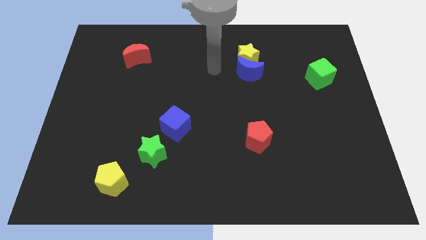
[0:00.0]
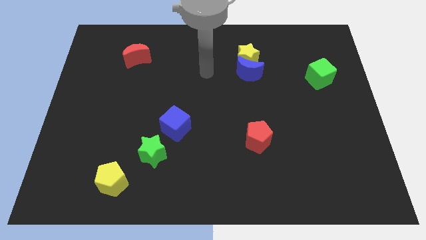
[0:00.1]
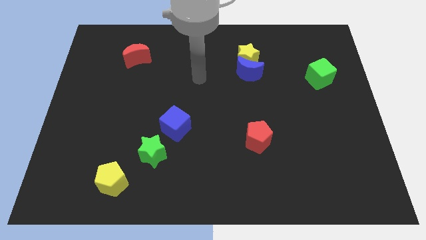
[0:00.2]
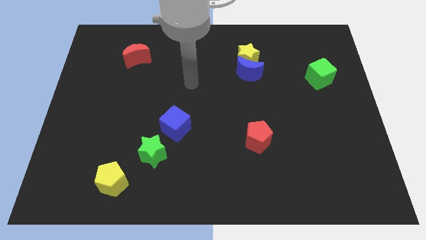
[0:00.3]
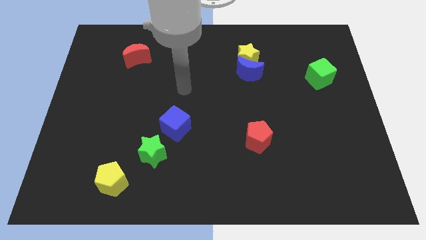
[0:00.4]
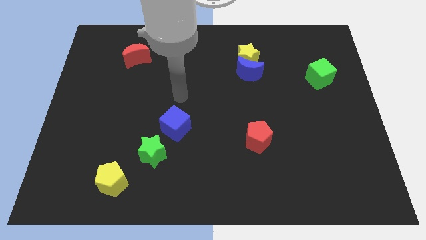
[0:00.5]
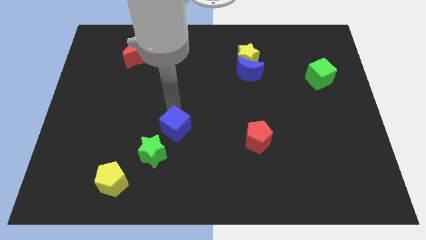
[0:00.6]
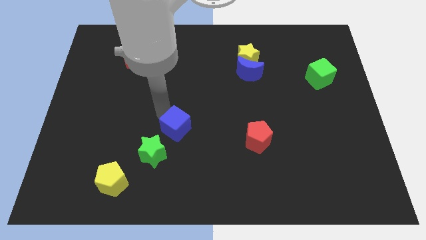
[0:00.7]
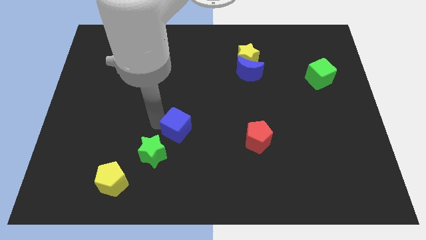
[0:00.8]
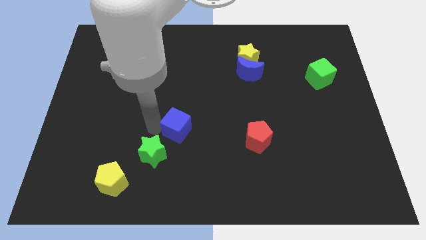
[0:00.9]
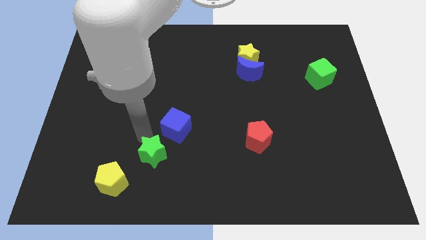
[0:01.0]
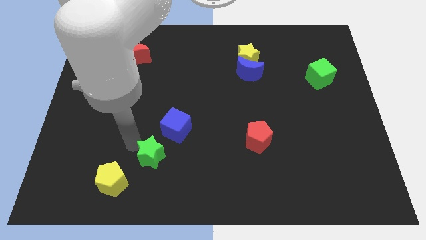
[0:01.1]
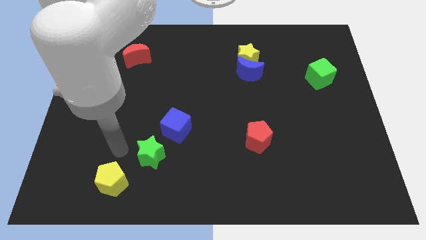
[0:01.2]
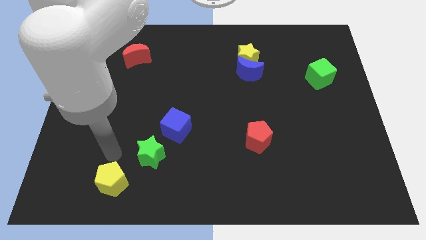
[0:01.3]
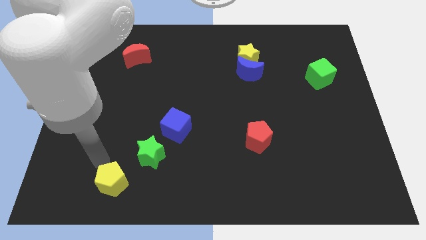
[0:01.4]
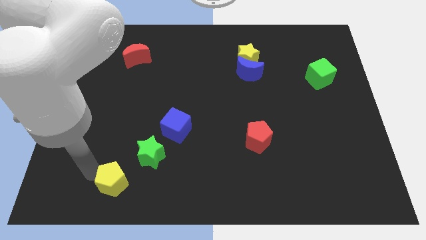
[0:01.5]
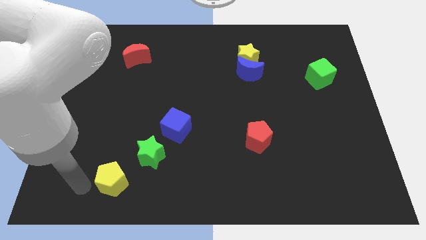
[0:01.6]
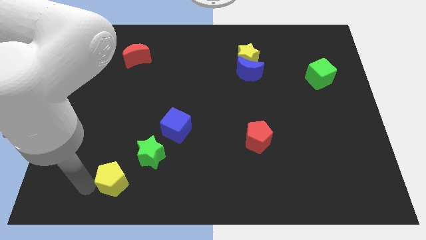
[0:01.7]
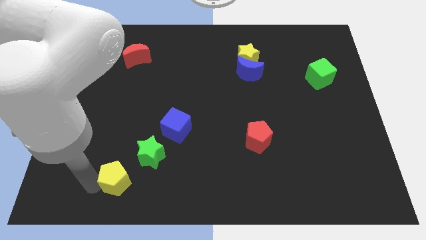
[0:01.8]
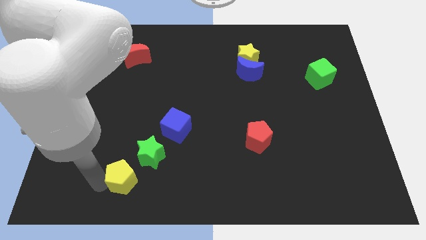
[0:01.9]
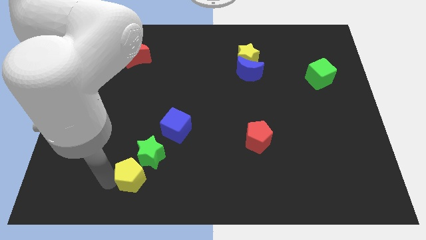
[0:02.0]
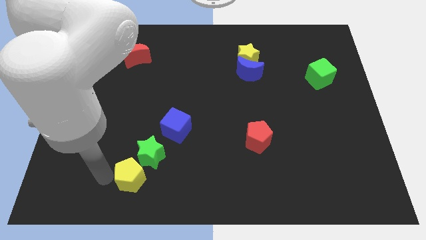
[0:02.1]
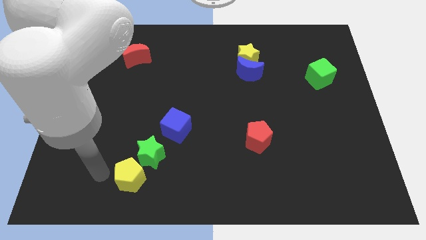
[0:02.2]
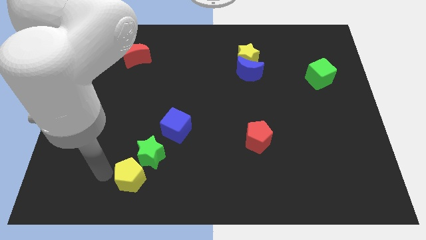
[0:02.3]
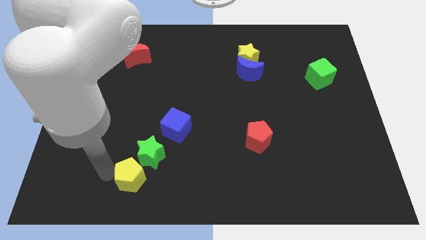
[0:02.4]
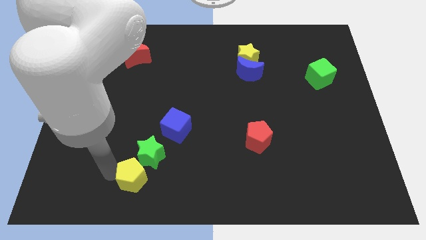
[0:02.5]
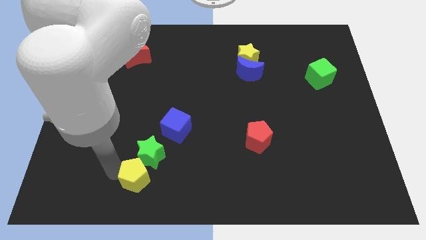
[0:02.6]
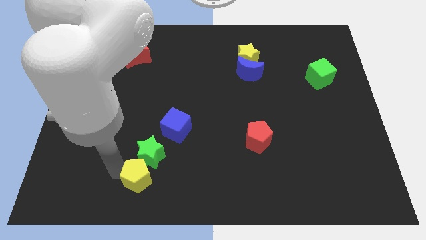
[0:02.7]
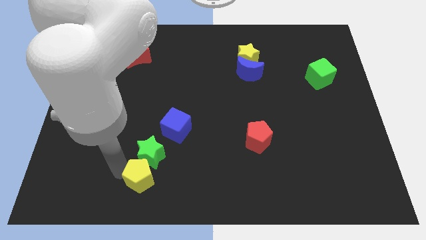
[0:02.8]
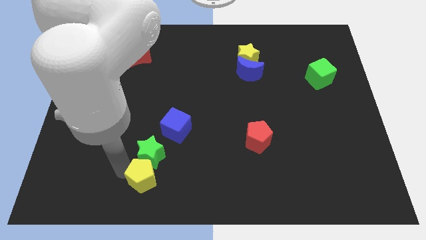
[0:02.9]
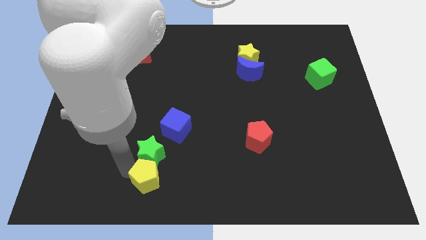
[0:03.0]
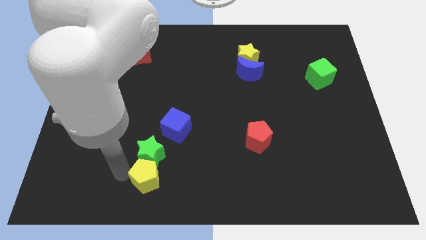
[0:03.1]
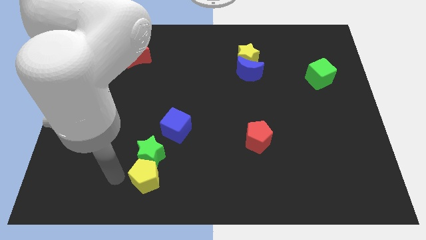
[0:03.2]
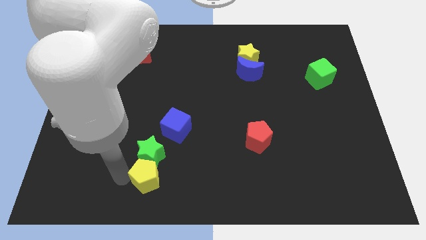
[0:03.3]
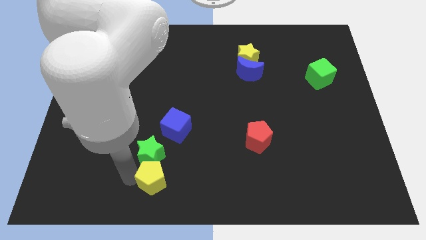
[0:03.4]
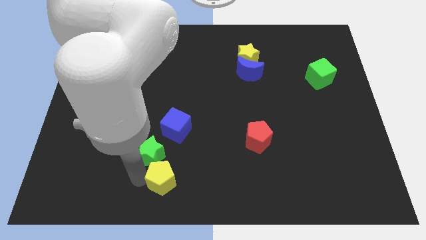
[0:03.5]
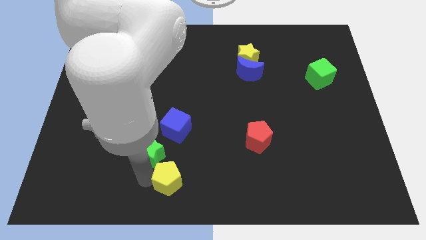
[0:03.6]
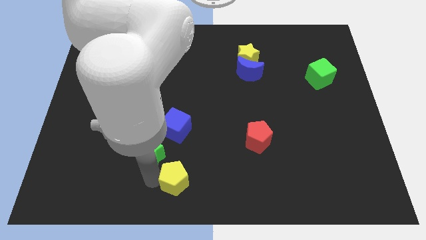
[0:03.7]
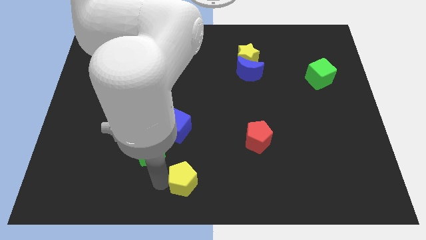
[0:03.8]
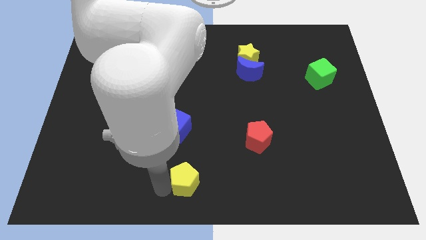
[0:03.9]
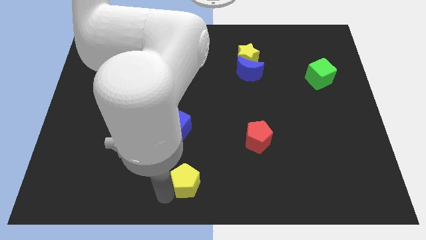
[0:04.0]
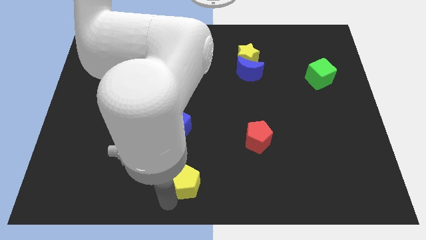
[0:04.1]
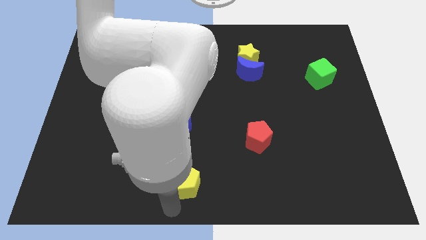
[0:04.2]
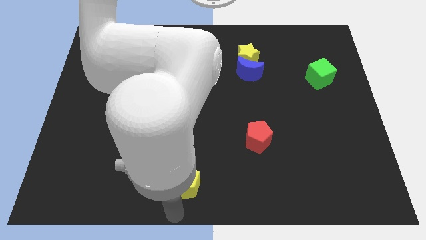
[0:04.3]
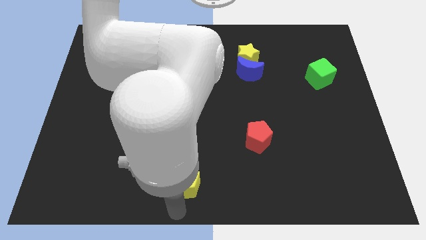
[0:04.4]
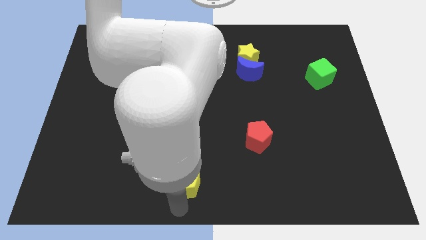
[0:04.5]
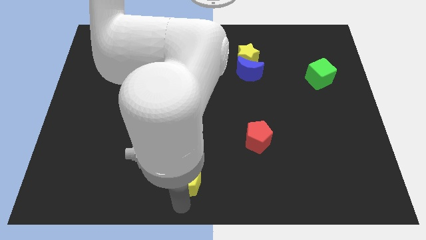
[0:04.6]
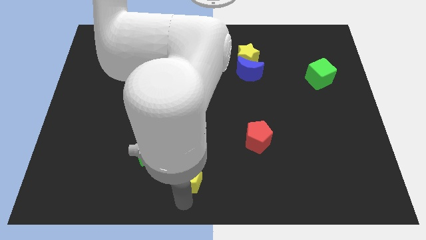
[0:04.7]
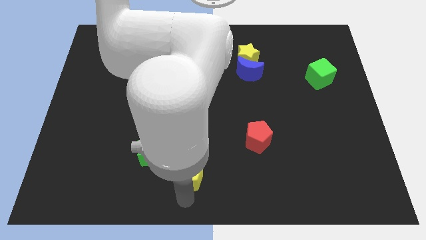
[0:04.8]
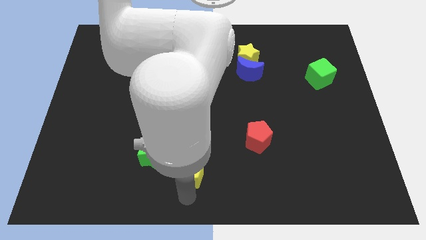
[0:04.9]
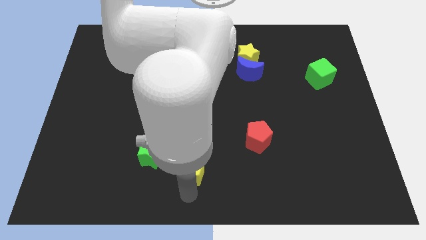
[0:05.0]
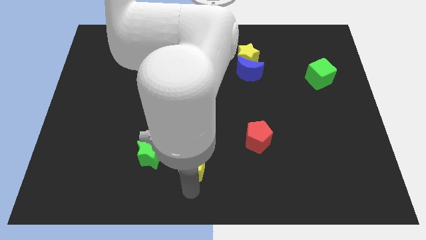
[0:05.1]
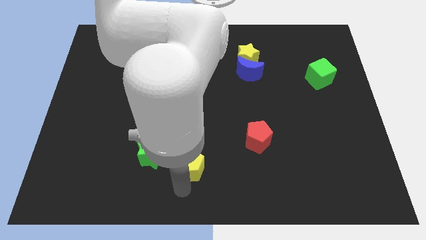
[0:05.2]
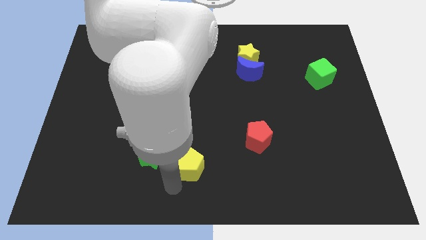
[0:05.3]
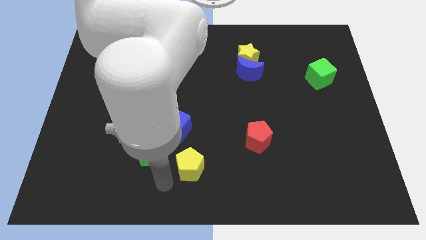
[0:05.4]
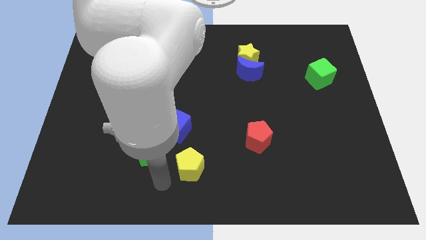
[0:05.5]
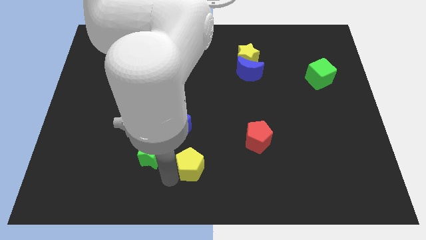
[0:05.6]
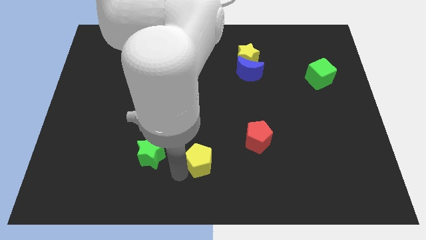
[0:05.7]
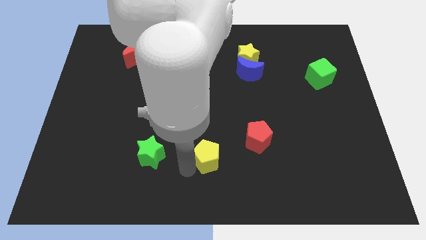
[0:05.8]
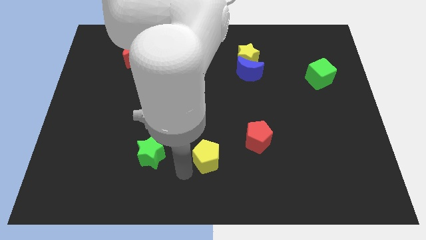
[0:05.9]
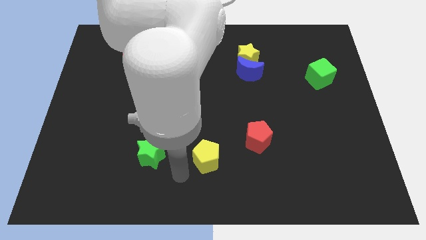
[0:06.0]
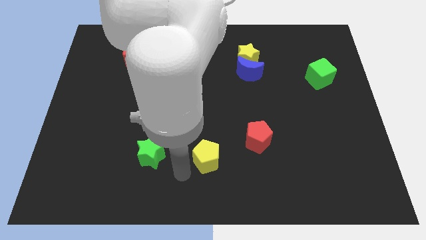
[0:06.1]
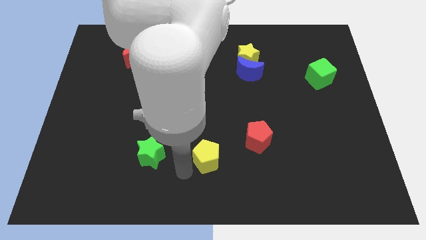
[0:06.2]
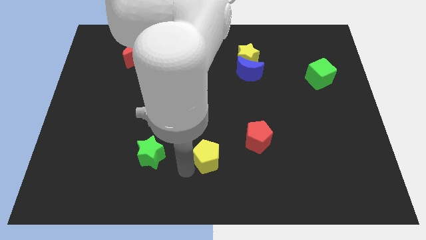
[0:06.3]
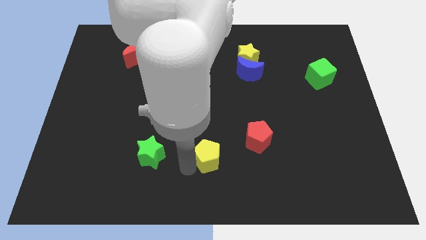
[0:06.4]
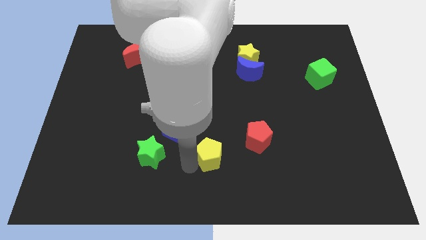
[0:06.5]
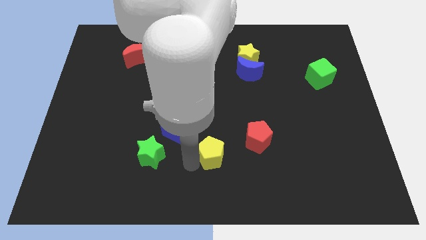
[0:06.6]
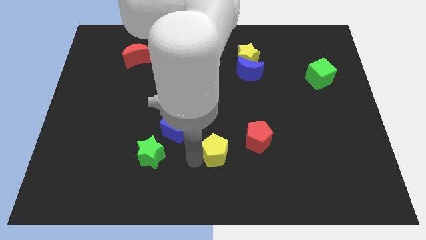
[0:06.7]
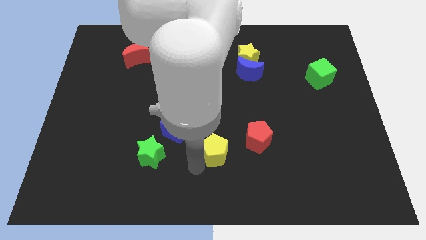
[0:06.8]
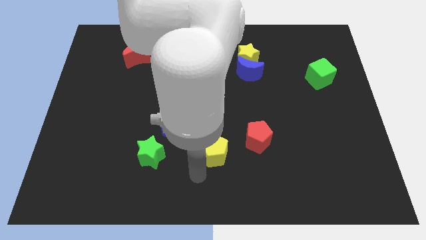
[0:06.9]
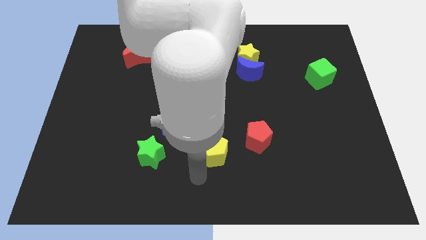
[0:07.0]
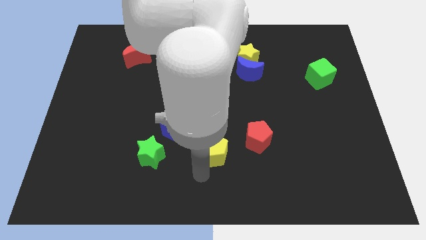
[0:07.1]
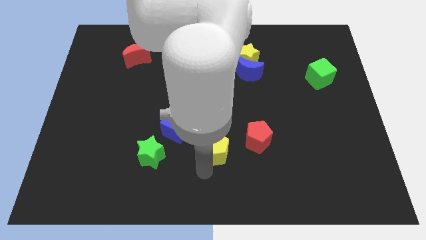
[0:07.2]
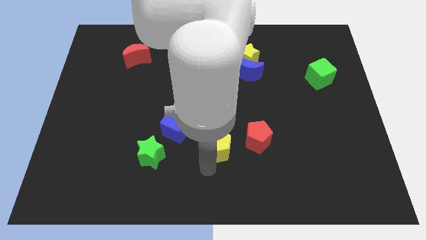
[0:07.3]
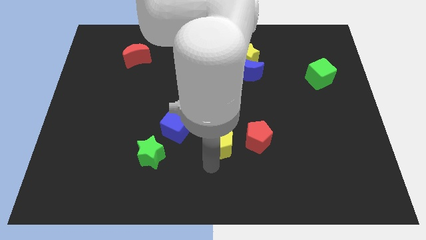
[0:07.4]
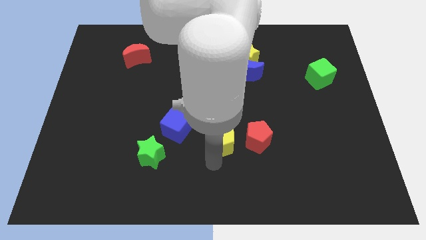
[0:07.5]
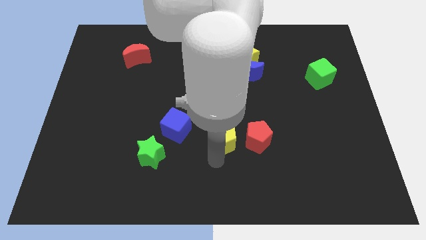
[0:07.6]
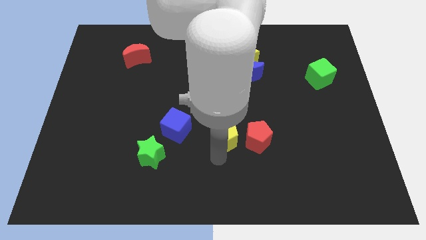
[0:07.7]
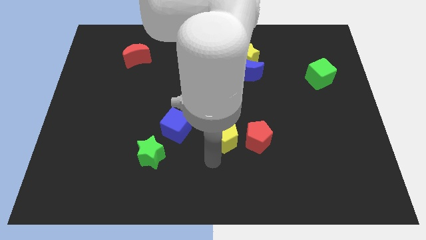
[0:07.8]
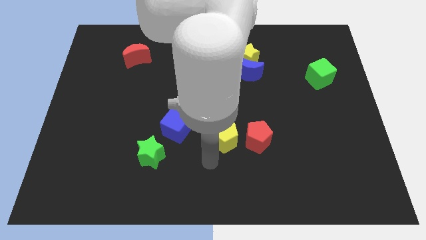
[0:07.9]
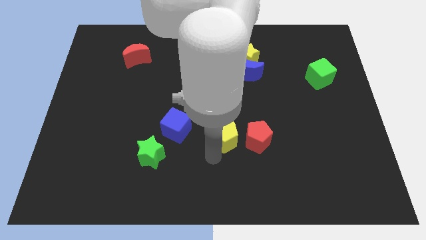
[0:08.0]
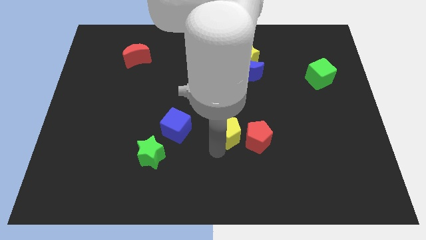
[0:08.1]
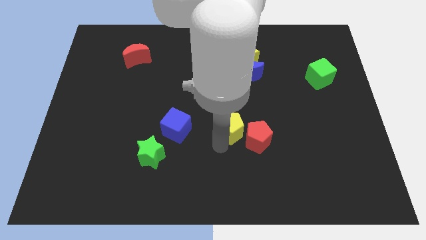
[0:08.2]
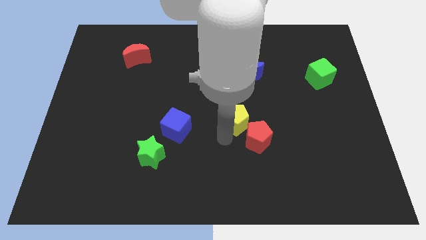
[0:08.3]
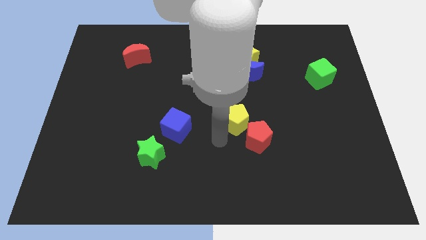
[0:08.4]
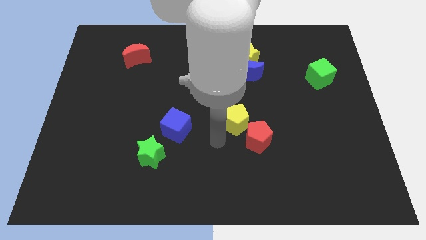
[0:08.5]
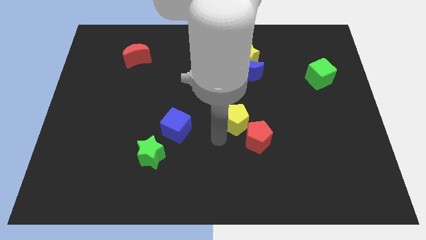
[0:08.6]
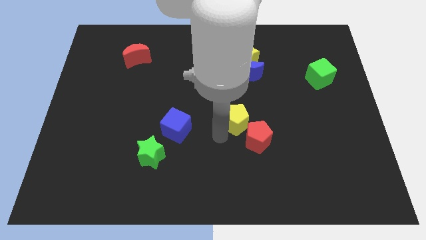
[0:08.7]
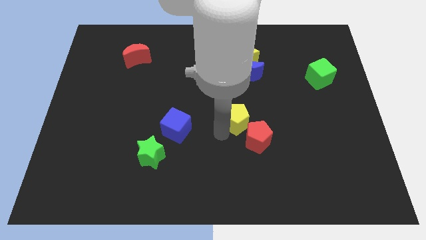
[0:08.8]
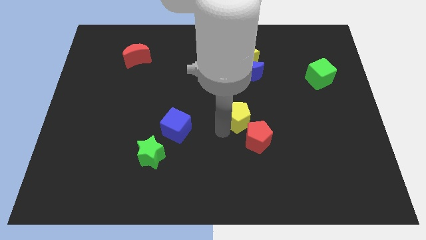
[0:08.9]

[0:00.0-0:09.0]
slide the yellow pentagon to the bottom of the blue moon
